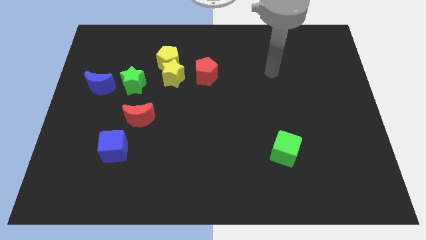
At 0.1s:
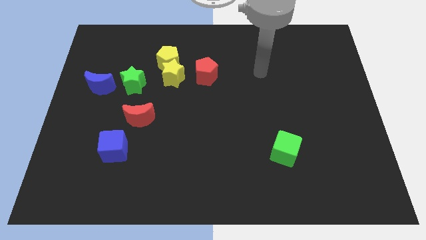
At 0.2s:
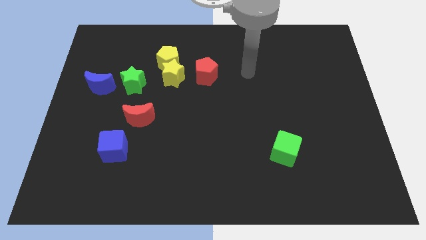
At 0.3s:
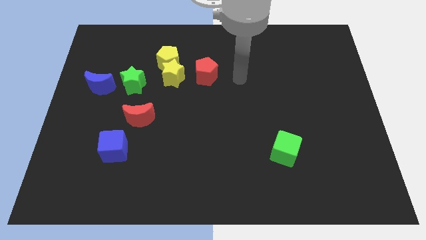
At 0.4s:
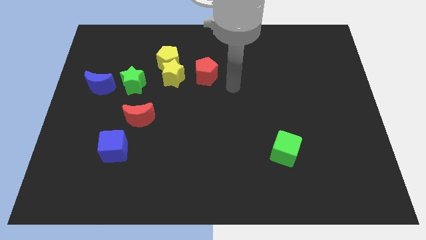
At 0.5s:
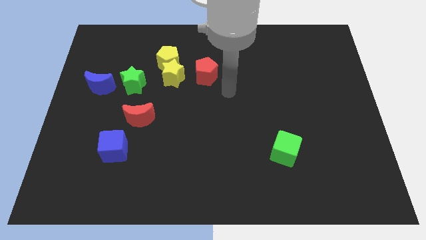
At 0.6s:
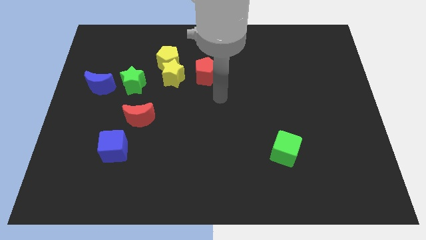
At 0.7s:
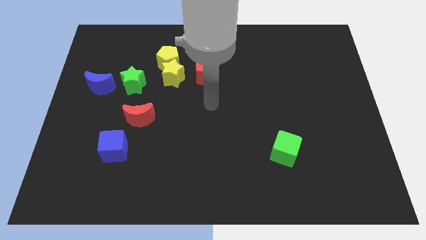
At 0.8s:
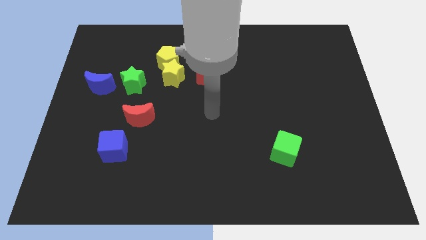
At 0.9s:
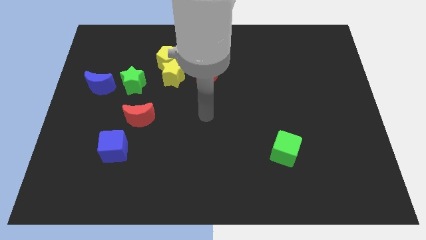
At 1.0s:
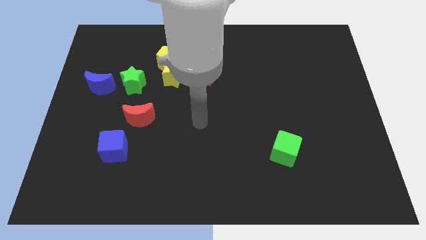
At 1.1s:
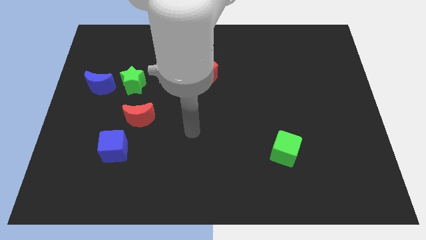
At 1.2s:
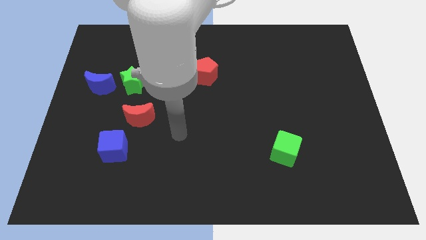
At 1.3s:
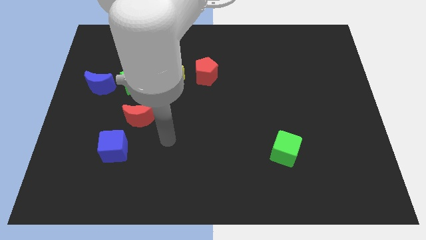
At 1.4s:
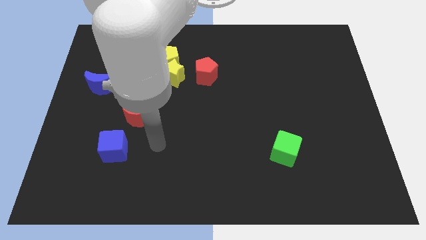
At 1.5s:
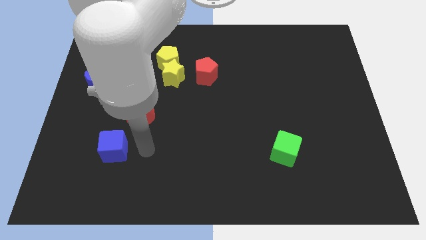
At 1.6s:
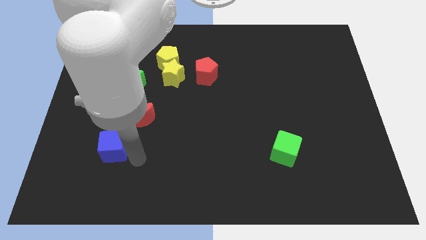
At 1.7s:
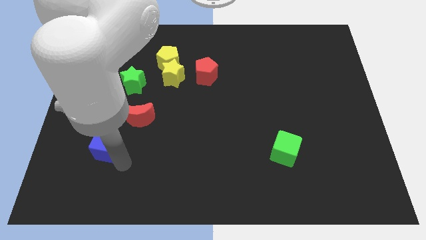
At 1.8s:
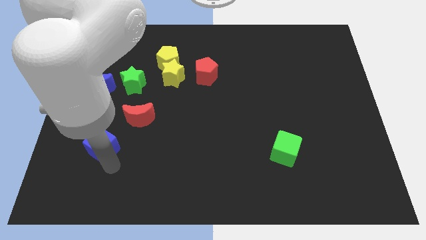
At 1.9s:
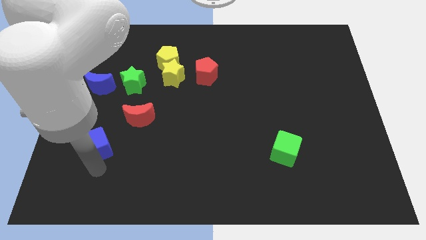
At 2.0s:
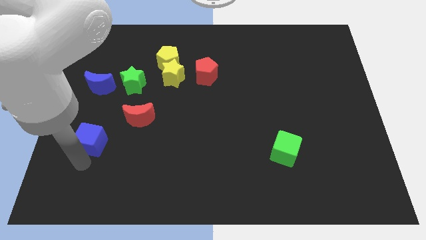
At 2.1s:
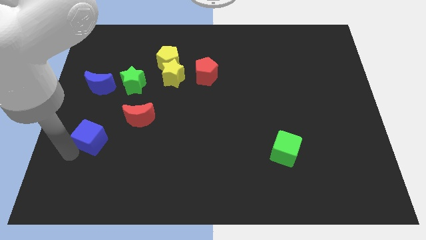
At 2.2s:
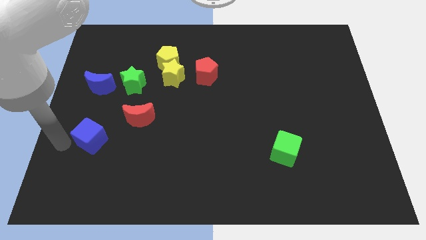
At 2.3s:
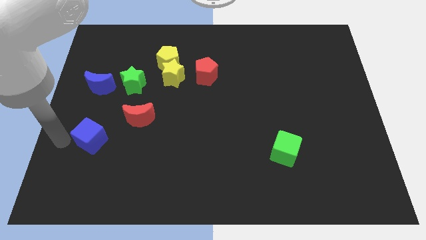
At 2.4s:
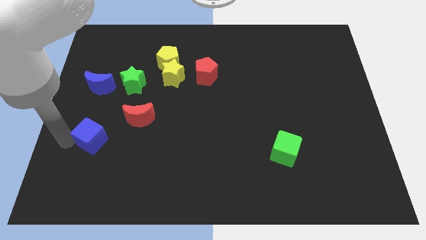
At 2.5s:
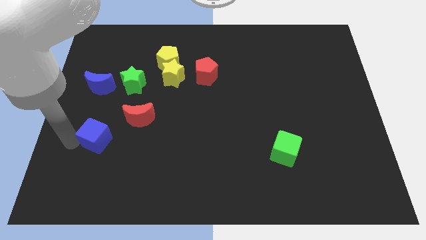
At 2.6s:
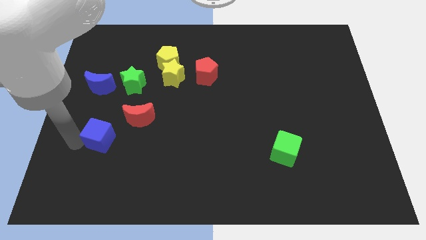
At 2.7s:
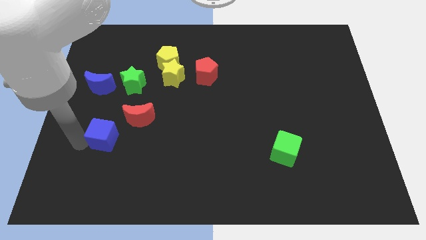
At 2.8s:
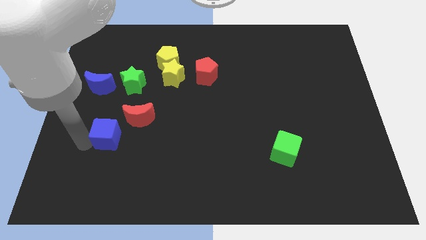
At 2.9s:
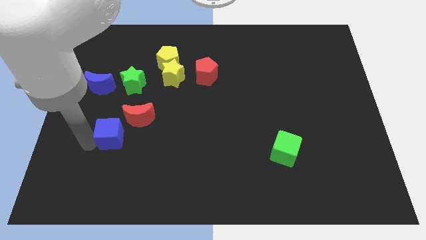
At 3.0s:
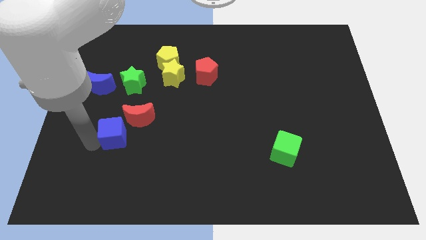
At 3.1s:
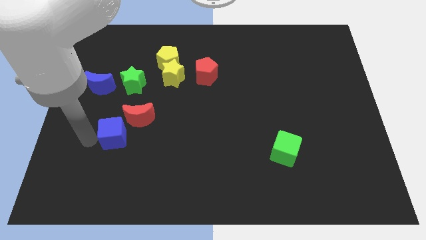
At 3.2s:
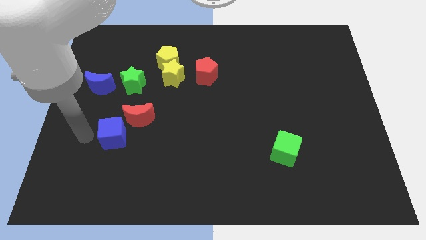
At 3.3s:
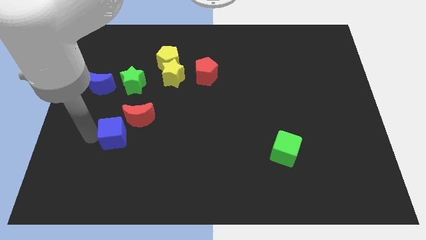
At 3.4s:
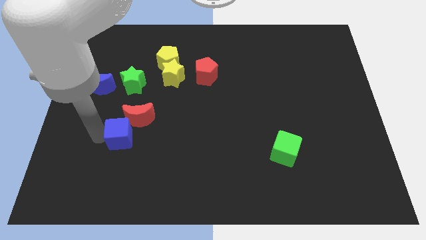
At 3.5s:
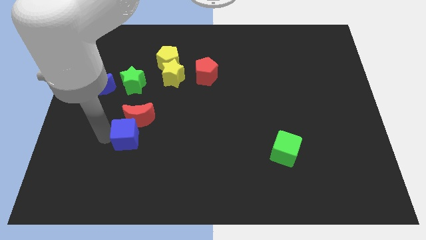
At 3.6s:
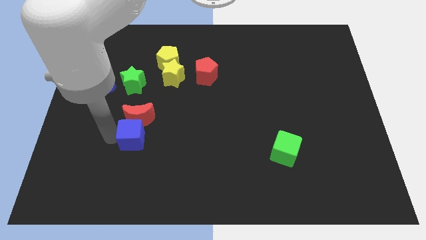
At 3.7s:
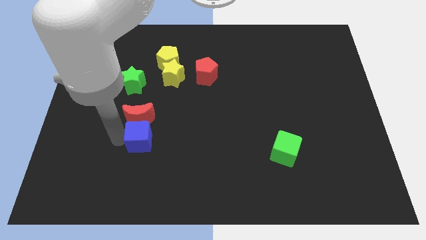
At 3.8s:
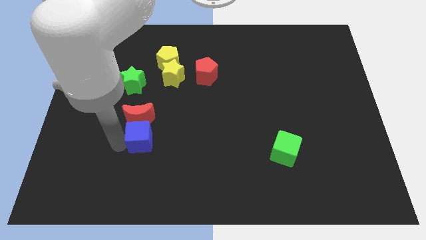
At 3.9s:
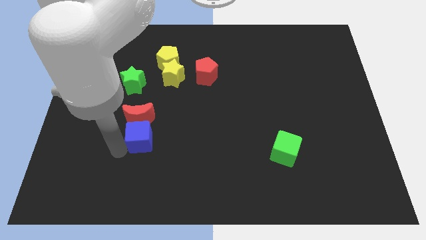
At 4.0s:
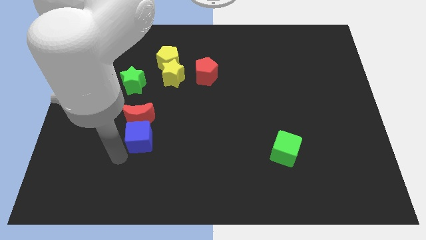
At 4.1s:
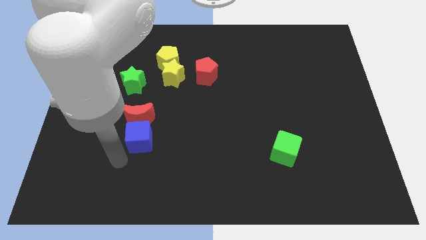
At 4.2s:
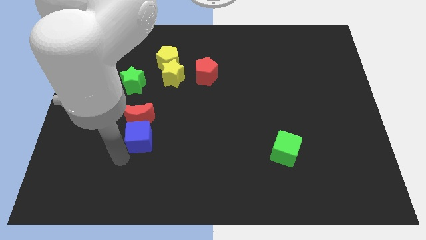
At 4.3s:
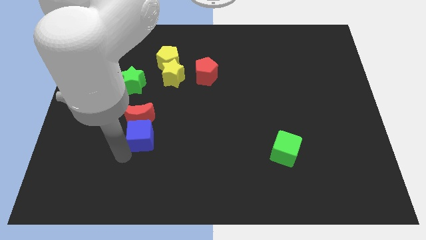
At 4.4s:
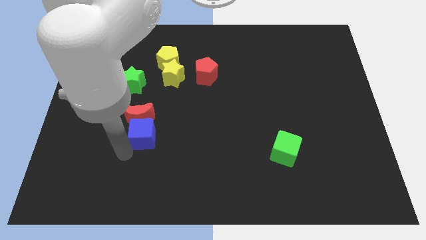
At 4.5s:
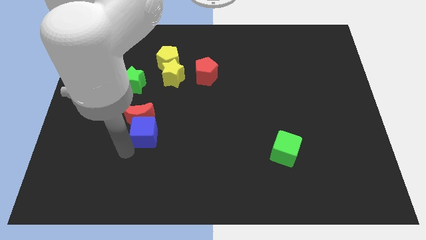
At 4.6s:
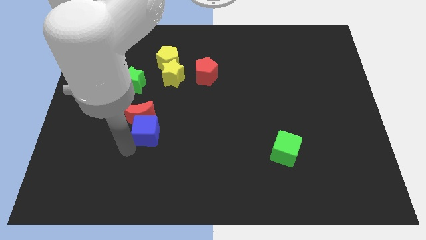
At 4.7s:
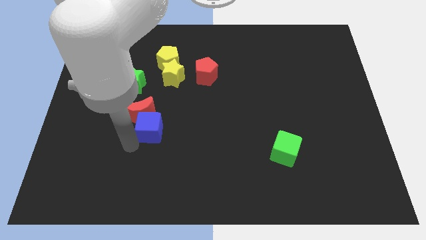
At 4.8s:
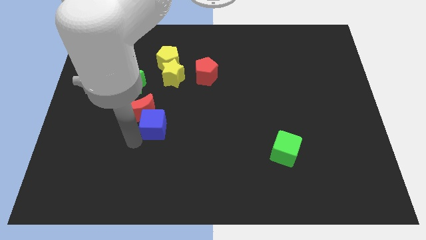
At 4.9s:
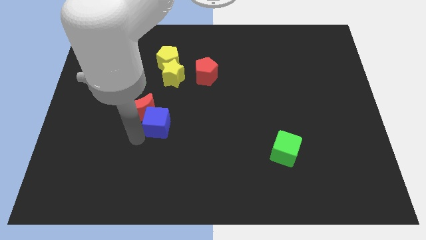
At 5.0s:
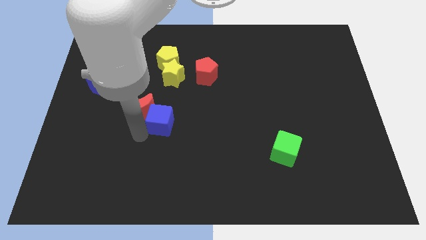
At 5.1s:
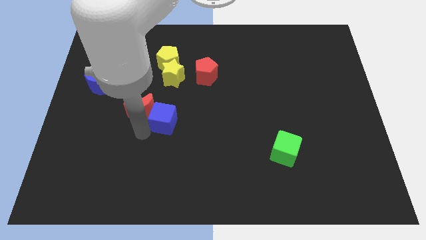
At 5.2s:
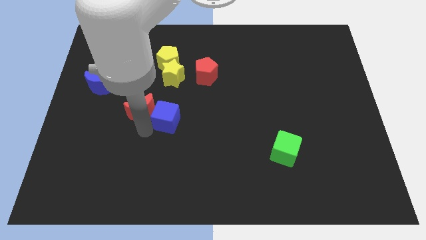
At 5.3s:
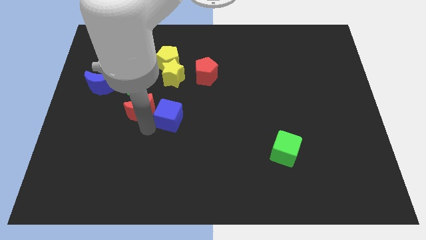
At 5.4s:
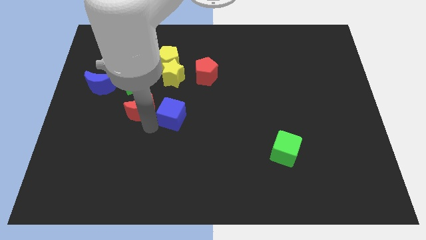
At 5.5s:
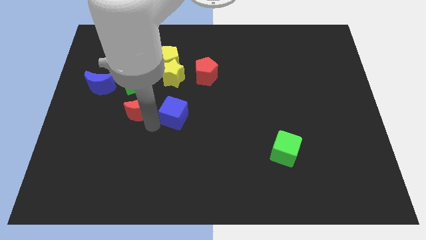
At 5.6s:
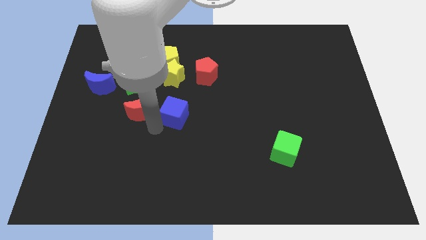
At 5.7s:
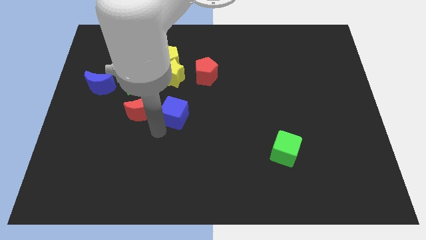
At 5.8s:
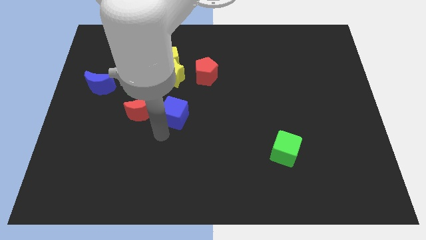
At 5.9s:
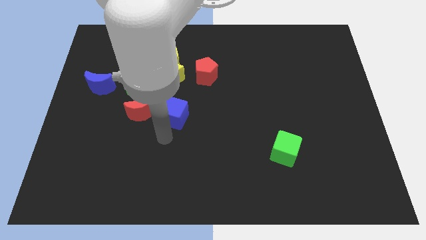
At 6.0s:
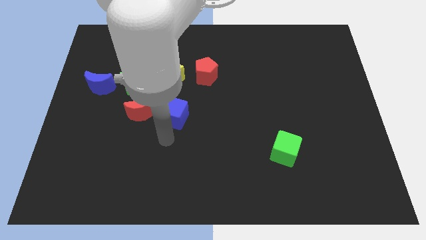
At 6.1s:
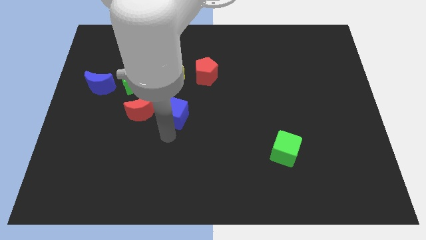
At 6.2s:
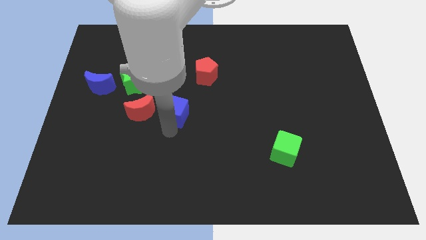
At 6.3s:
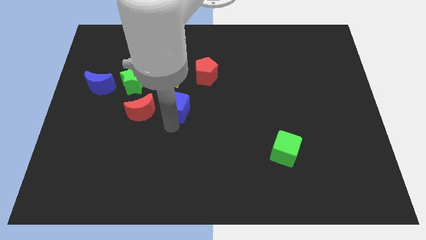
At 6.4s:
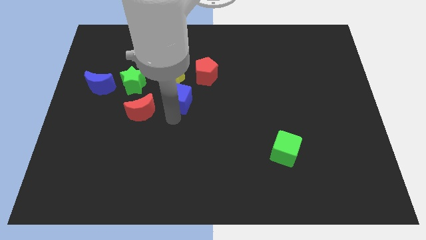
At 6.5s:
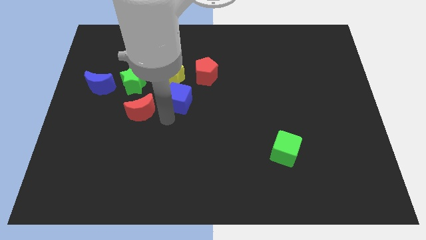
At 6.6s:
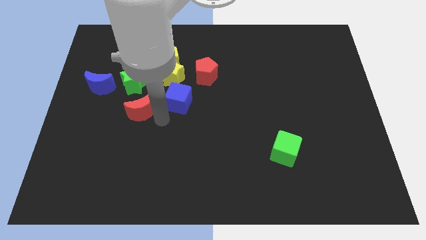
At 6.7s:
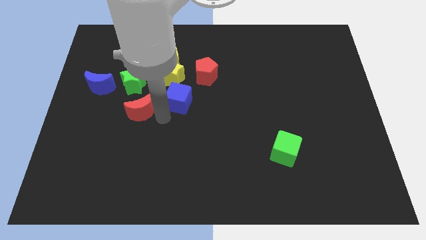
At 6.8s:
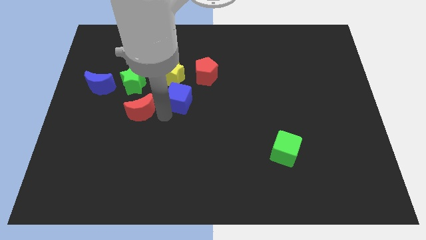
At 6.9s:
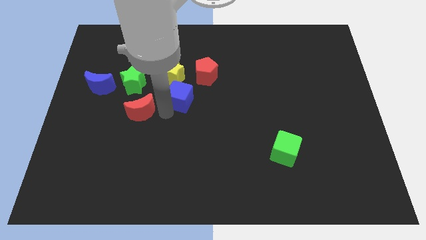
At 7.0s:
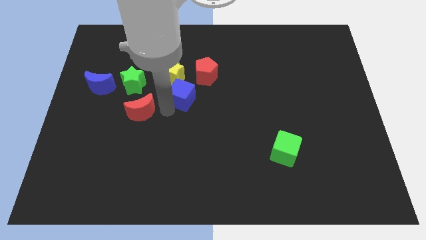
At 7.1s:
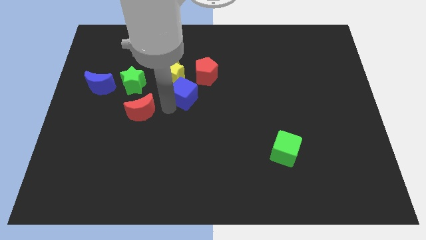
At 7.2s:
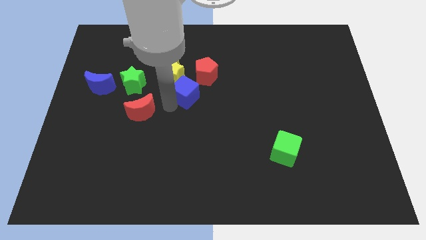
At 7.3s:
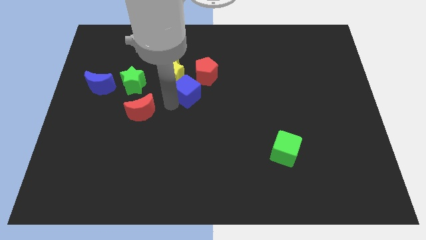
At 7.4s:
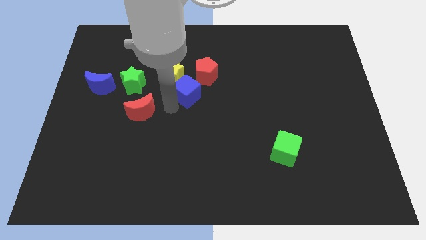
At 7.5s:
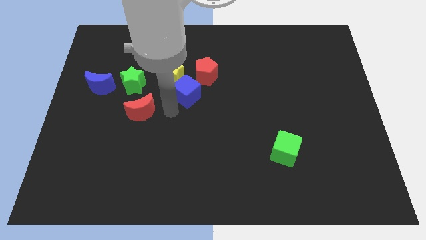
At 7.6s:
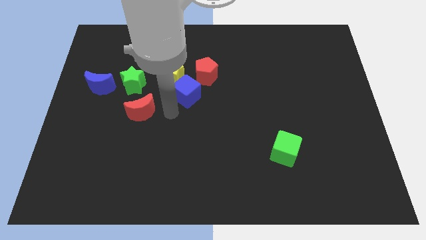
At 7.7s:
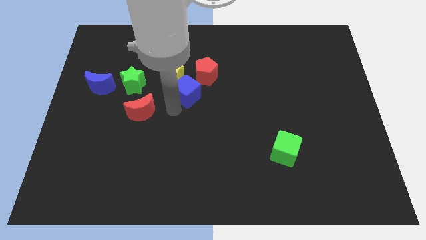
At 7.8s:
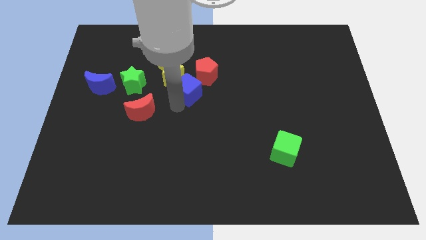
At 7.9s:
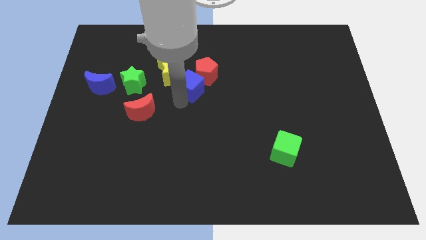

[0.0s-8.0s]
push the blue cube towards the red pentagon
